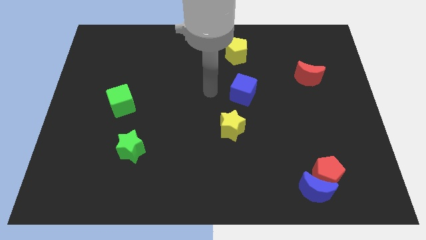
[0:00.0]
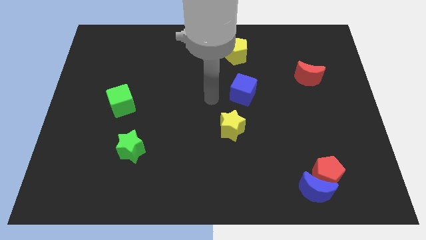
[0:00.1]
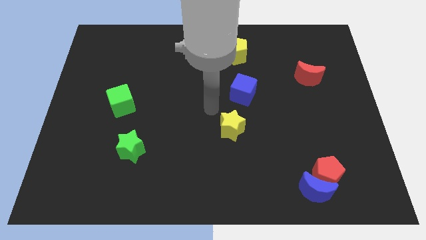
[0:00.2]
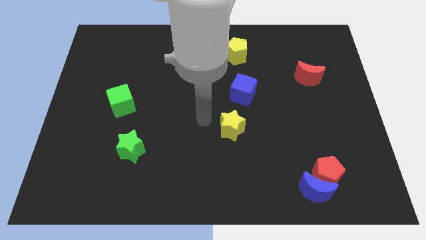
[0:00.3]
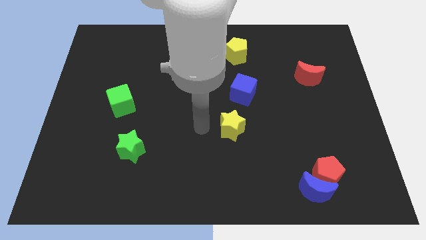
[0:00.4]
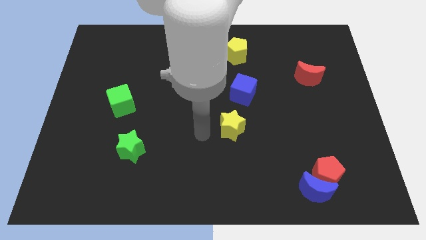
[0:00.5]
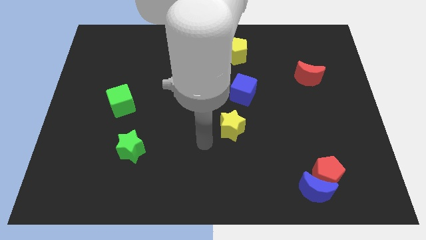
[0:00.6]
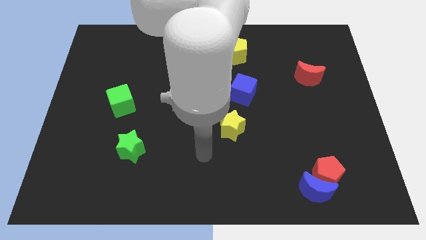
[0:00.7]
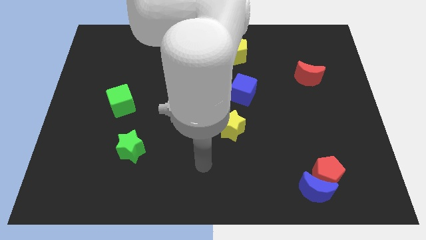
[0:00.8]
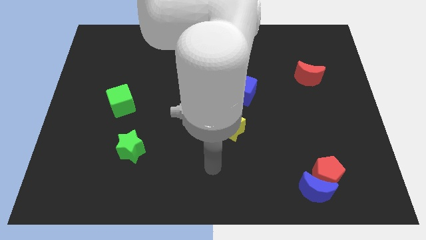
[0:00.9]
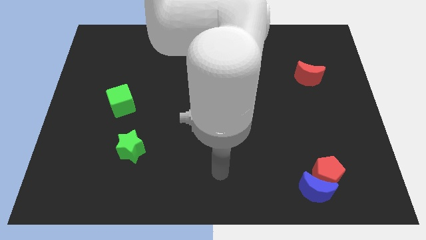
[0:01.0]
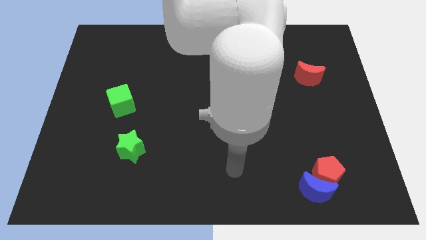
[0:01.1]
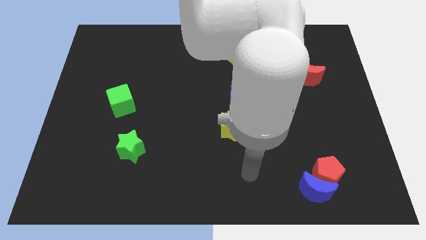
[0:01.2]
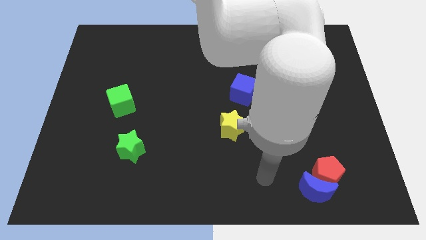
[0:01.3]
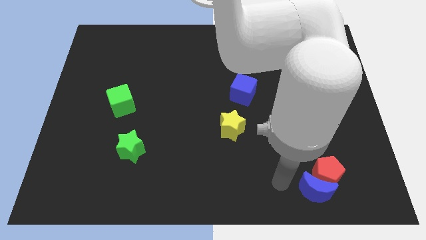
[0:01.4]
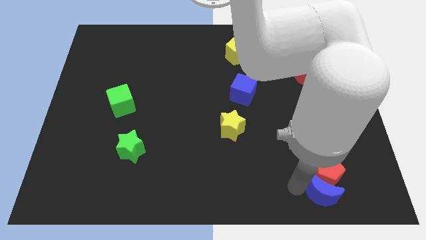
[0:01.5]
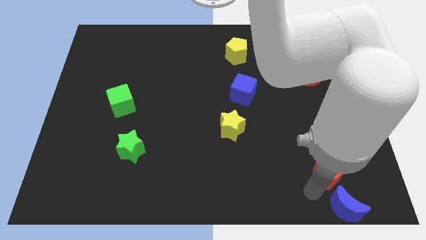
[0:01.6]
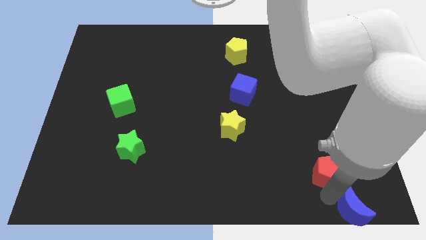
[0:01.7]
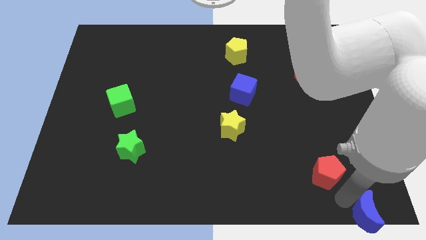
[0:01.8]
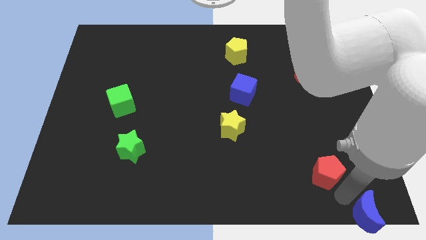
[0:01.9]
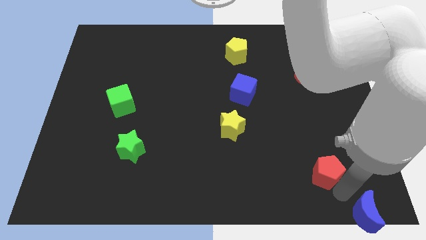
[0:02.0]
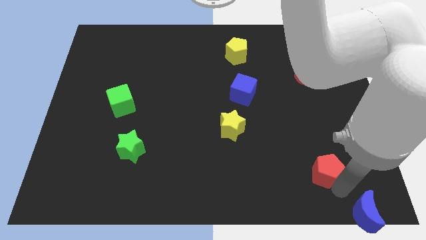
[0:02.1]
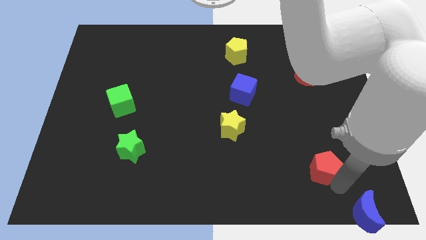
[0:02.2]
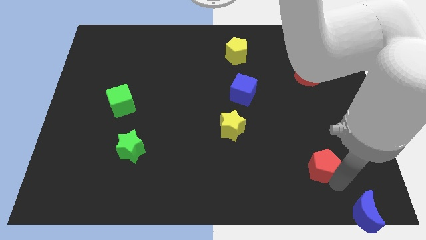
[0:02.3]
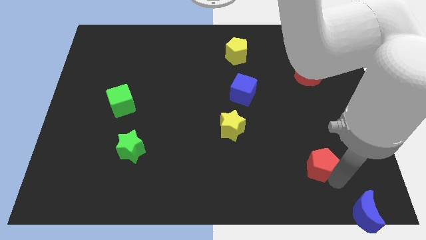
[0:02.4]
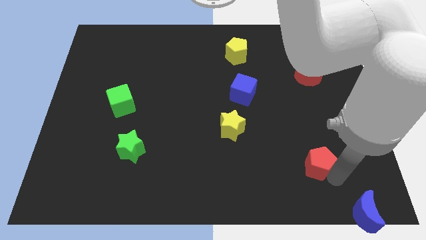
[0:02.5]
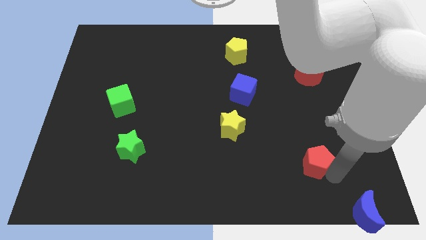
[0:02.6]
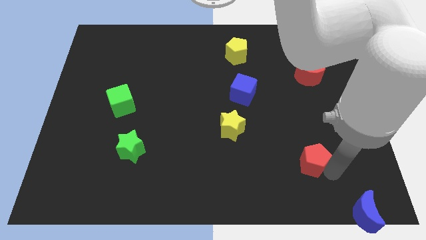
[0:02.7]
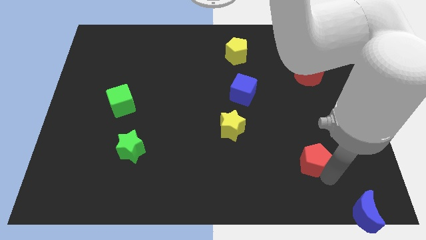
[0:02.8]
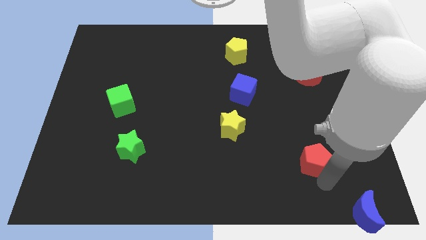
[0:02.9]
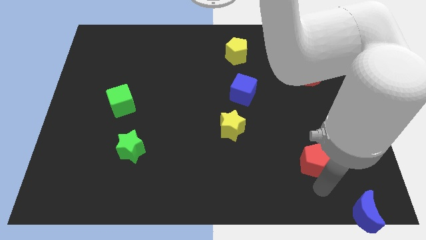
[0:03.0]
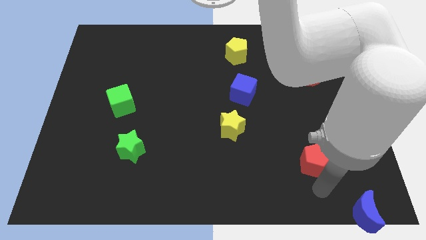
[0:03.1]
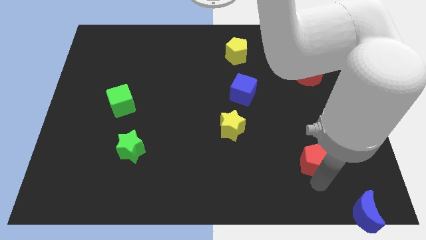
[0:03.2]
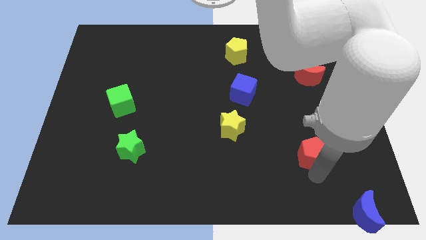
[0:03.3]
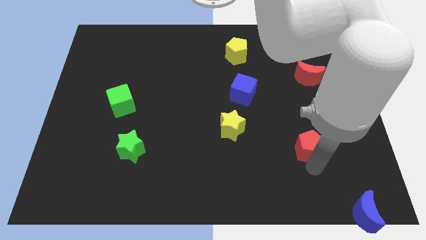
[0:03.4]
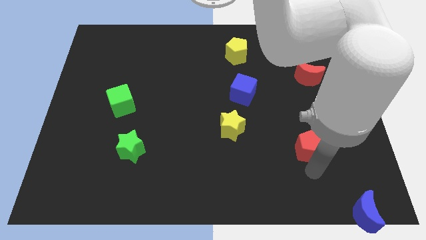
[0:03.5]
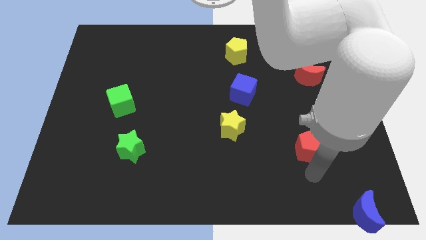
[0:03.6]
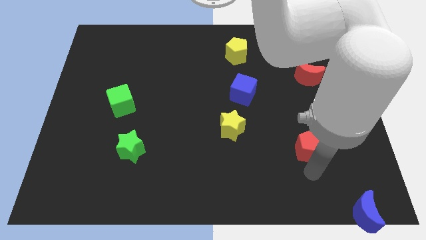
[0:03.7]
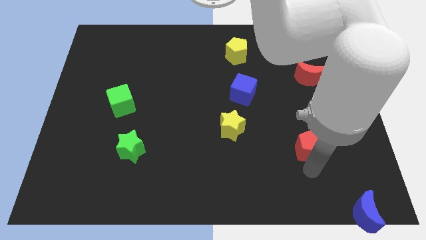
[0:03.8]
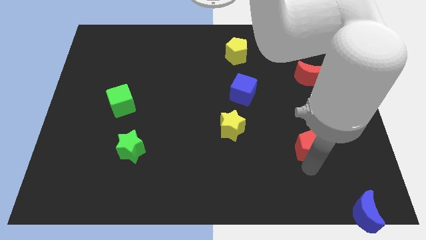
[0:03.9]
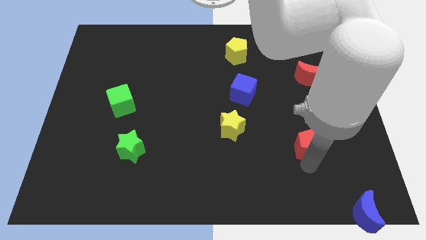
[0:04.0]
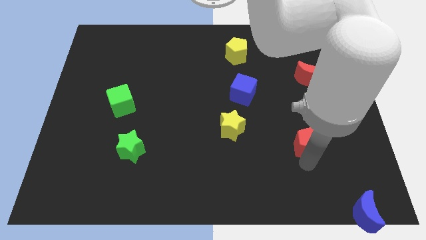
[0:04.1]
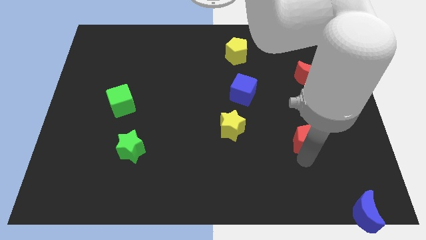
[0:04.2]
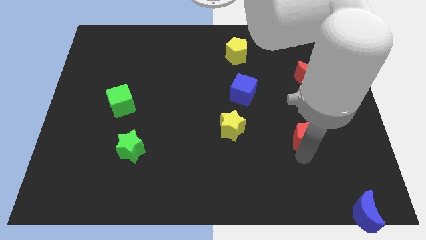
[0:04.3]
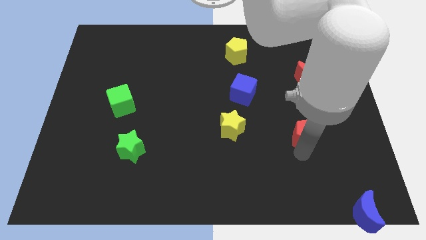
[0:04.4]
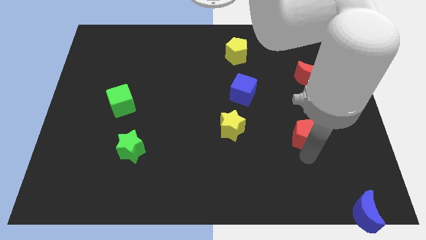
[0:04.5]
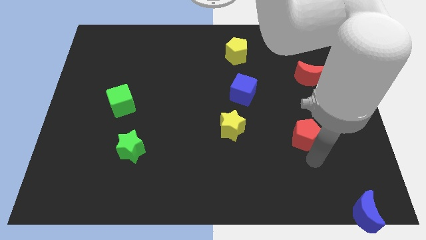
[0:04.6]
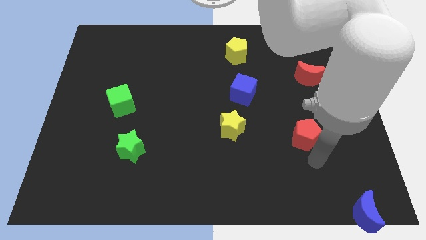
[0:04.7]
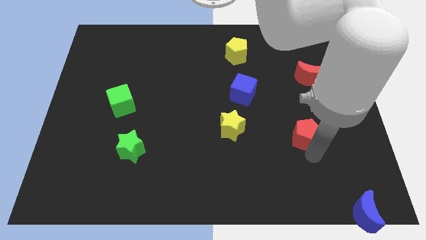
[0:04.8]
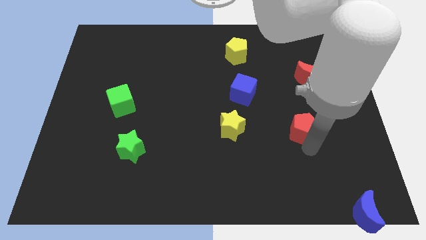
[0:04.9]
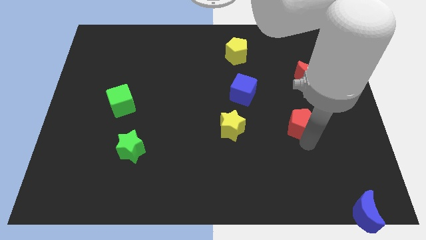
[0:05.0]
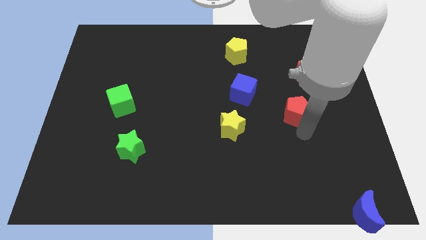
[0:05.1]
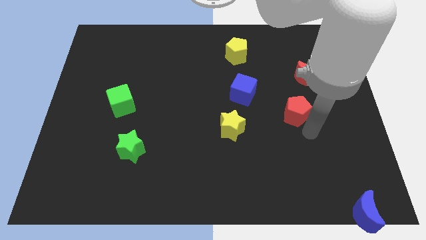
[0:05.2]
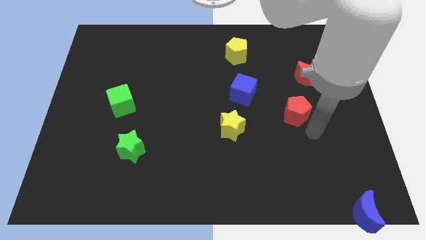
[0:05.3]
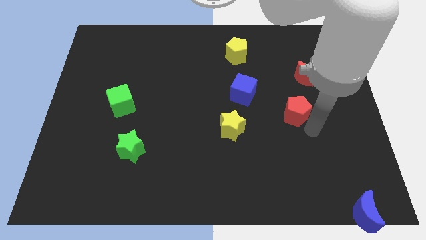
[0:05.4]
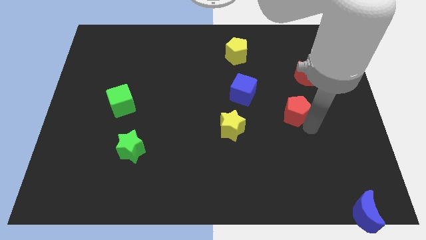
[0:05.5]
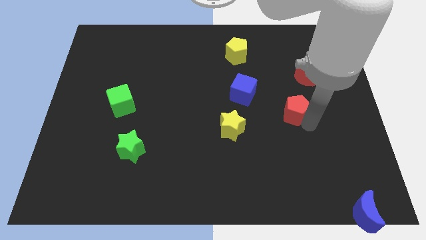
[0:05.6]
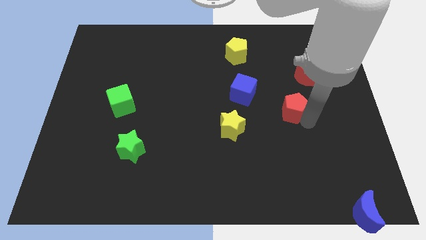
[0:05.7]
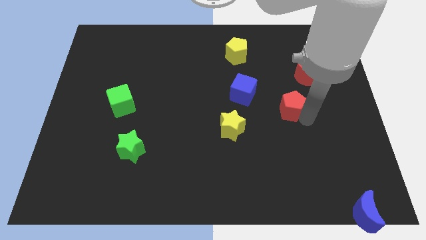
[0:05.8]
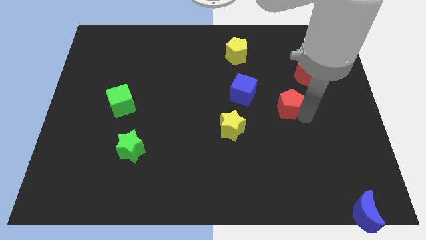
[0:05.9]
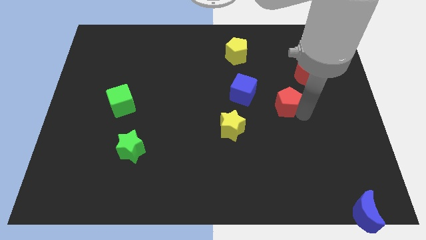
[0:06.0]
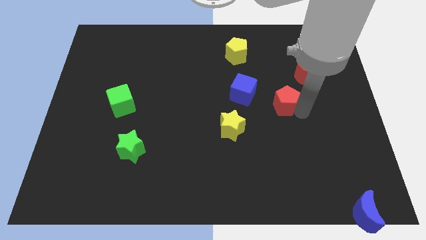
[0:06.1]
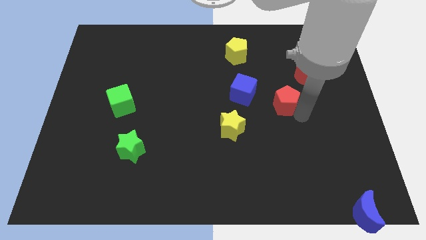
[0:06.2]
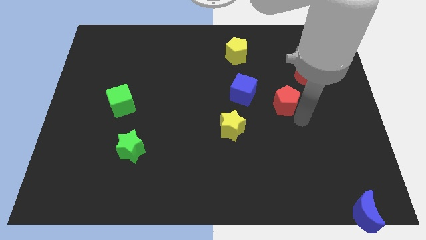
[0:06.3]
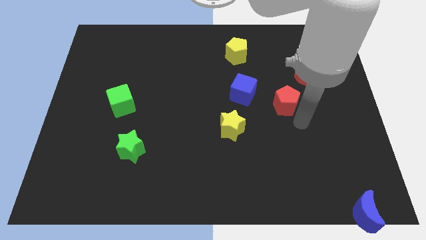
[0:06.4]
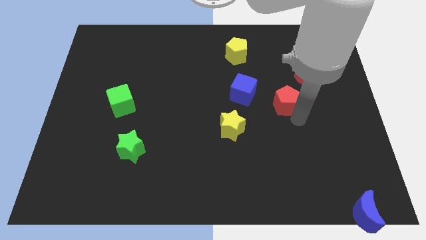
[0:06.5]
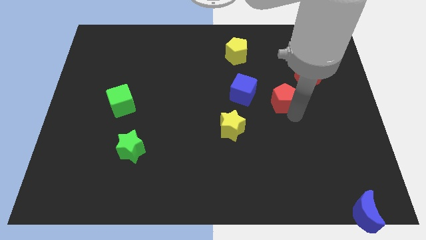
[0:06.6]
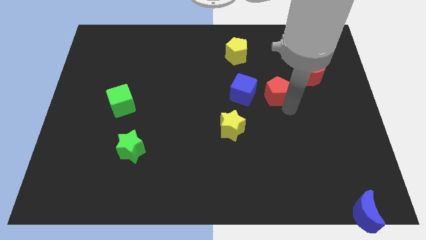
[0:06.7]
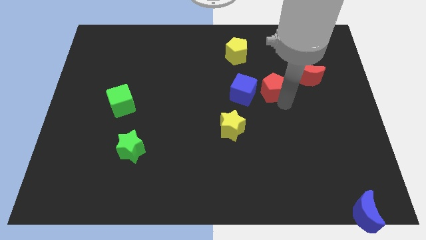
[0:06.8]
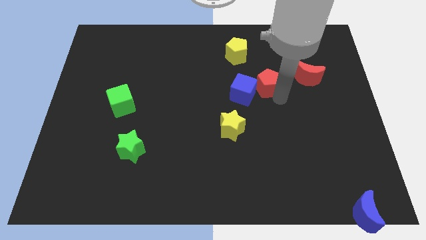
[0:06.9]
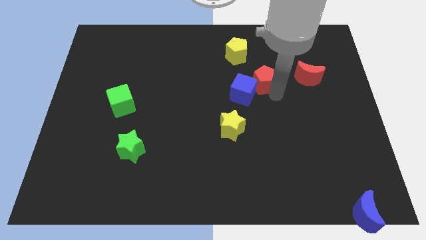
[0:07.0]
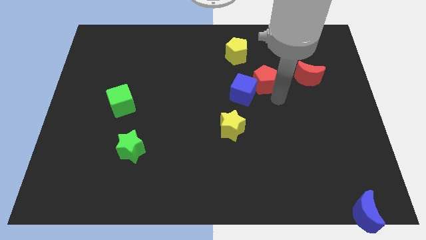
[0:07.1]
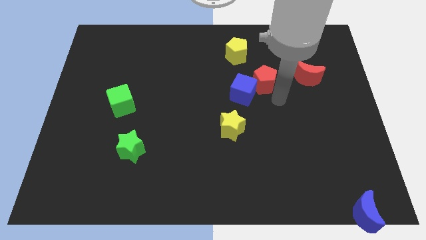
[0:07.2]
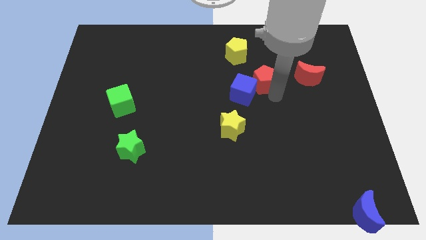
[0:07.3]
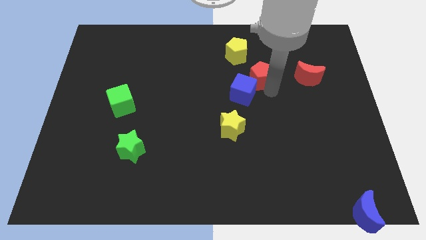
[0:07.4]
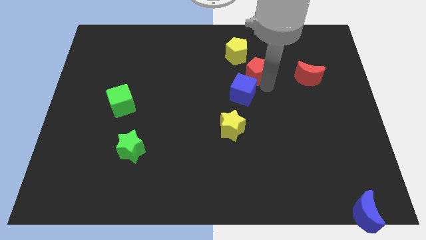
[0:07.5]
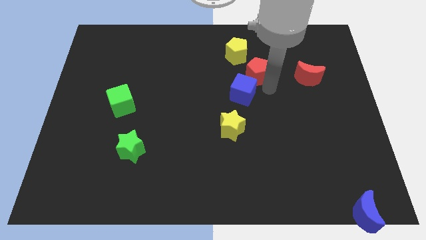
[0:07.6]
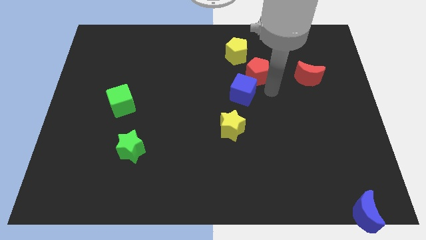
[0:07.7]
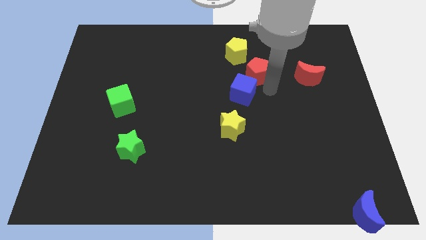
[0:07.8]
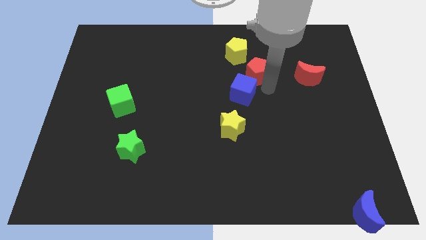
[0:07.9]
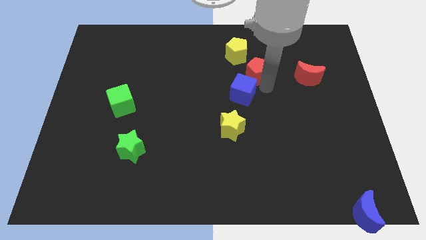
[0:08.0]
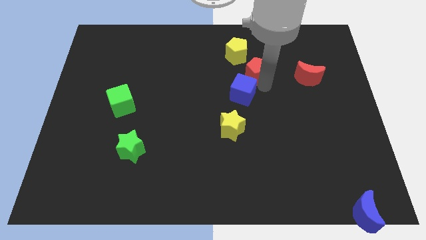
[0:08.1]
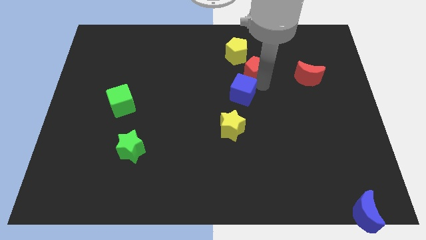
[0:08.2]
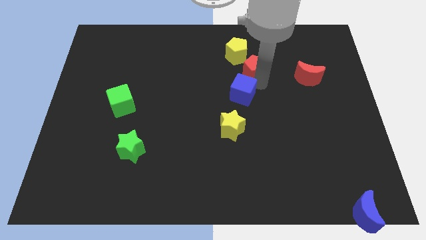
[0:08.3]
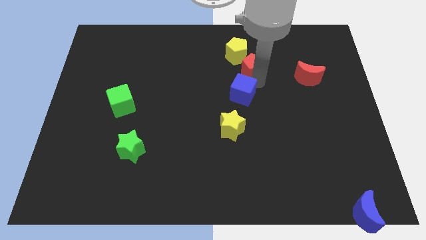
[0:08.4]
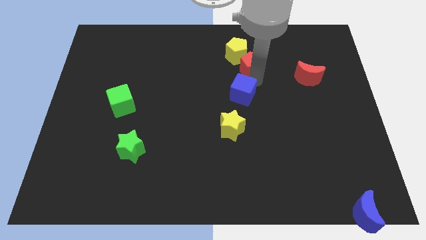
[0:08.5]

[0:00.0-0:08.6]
put the red pentagon towards the yellow pentagon
